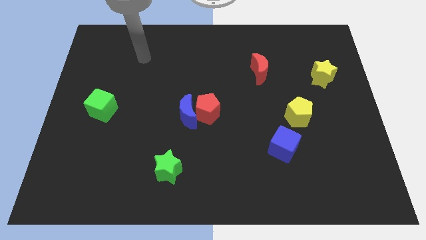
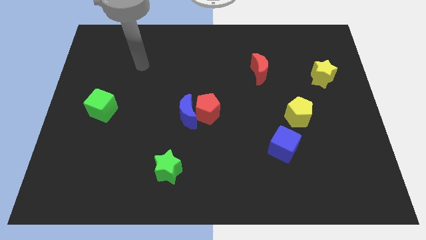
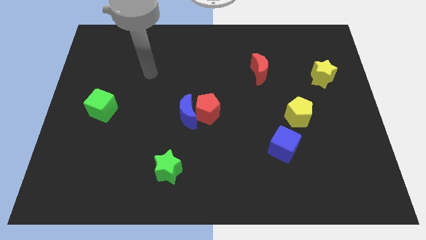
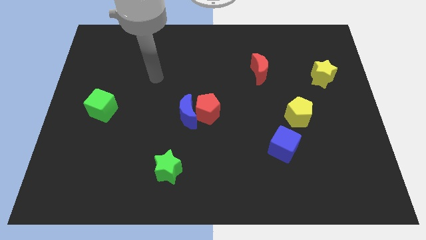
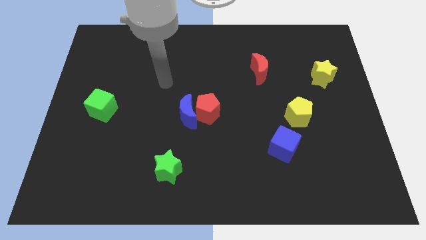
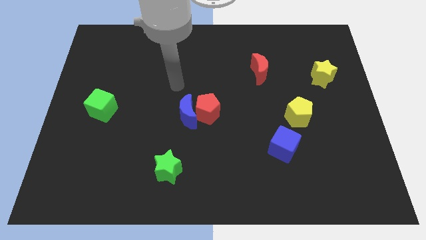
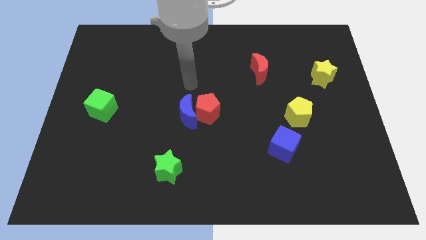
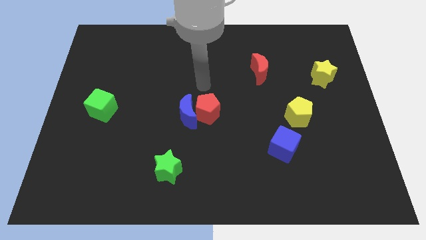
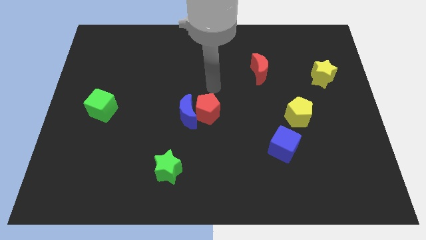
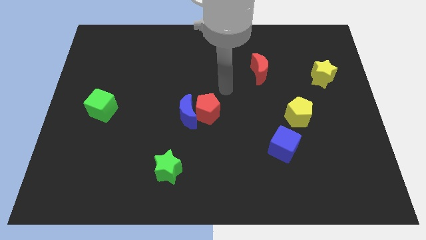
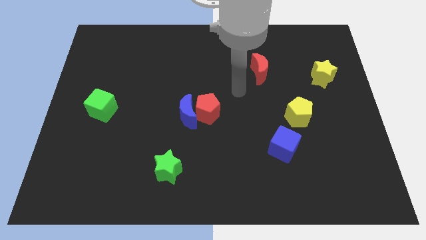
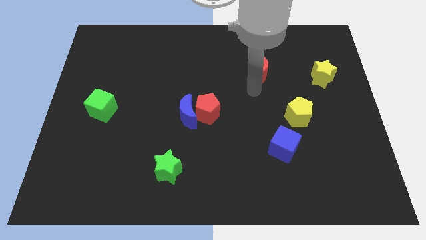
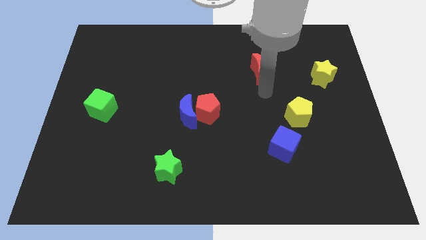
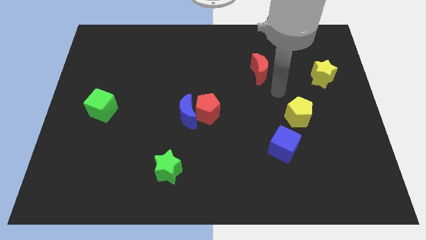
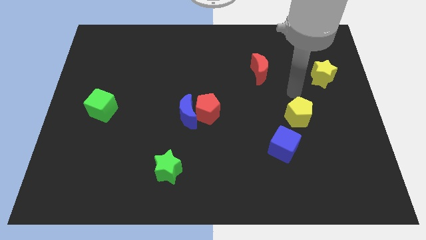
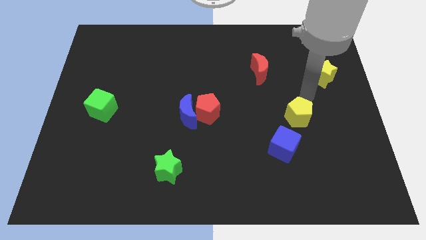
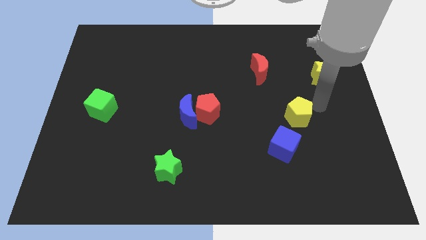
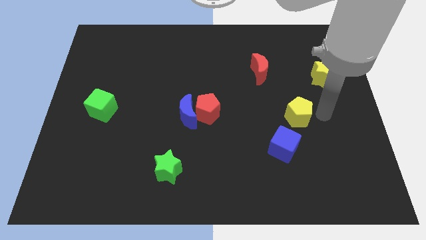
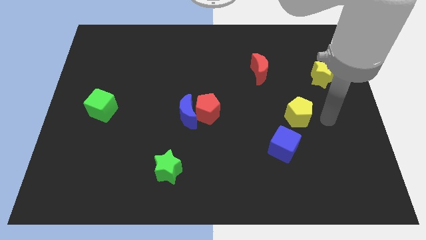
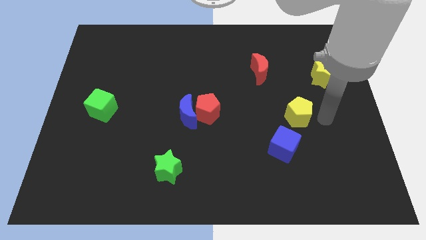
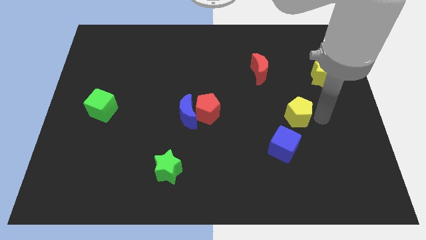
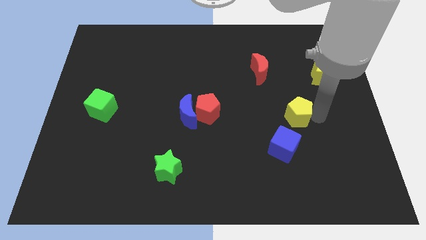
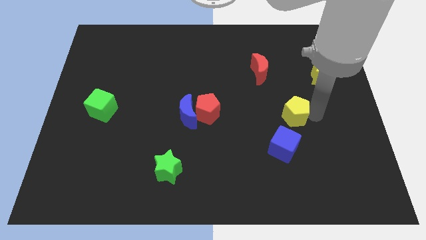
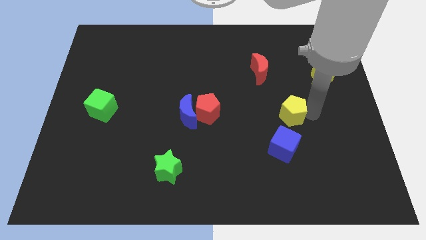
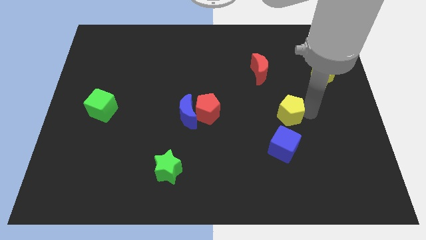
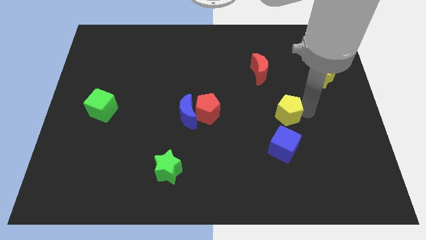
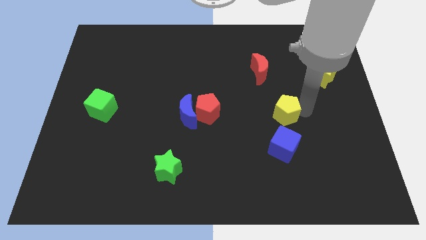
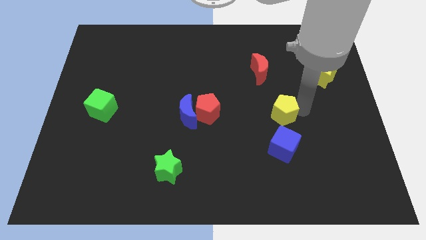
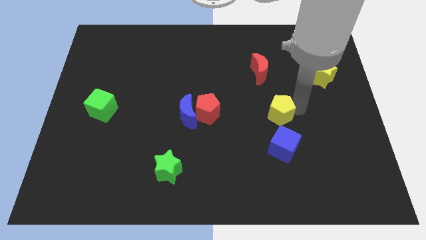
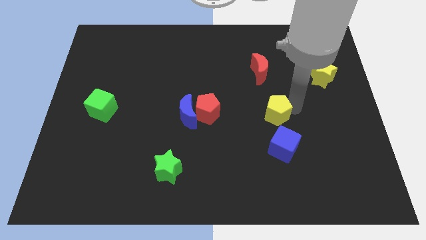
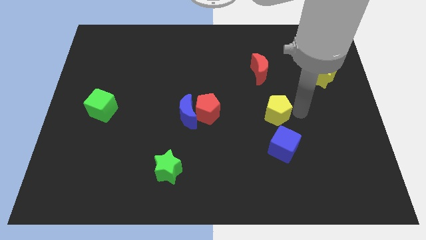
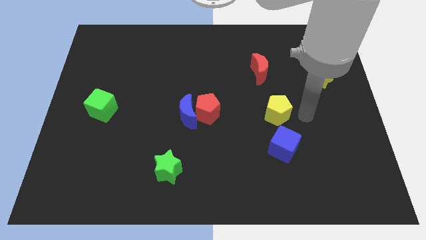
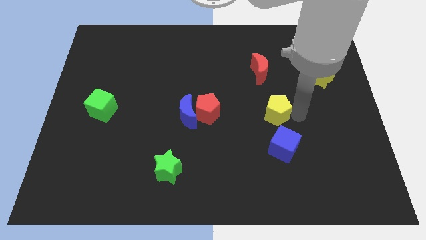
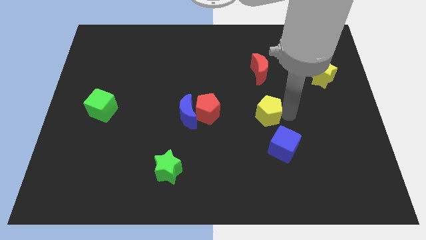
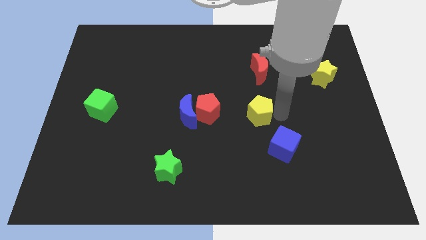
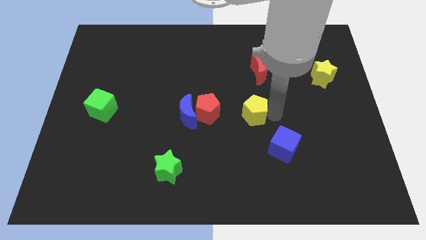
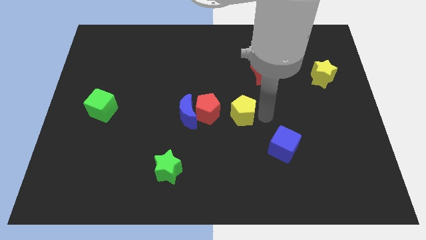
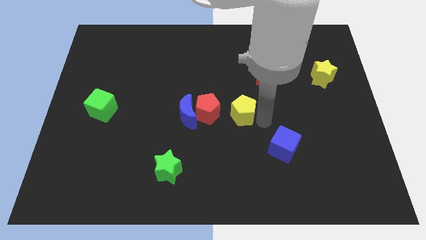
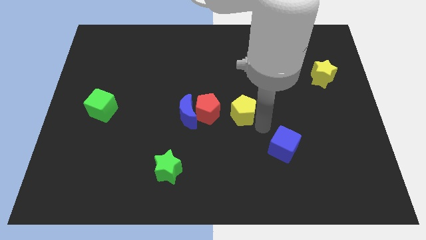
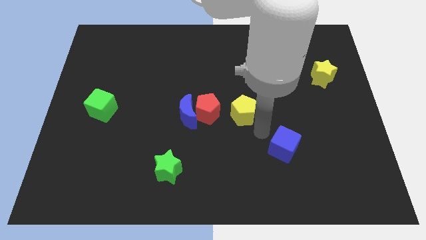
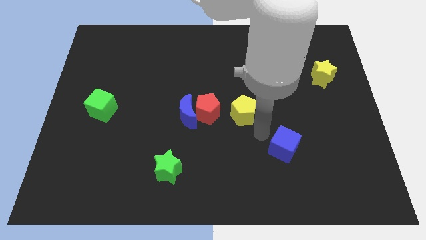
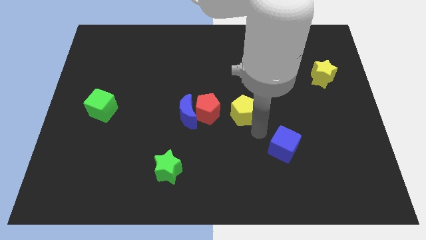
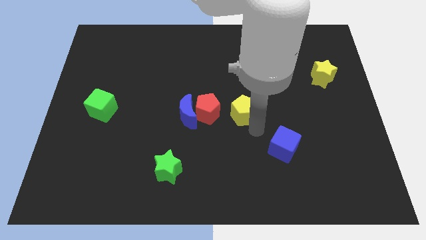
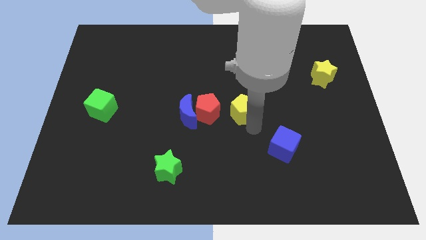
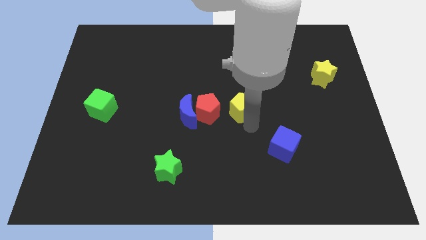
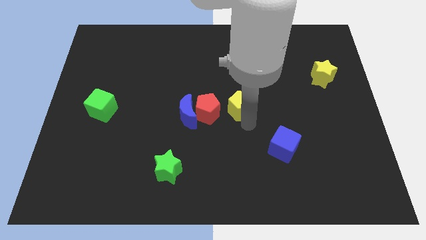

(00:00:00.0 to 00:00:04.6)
move the yellow pentagon diagonally up and to the right of the red pentagon

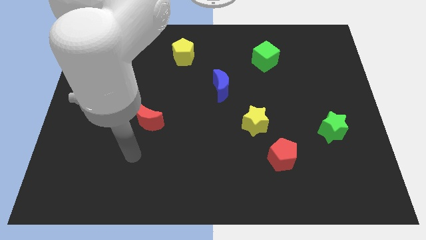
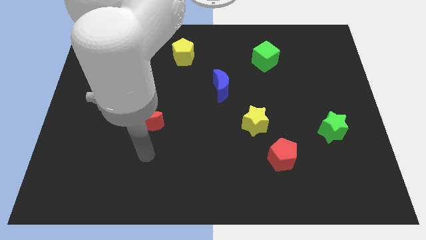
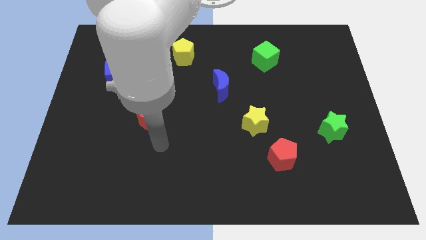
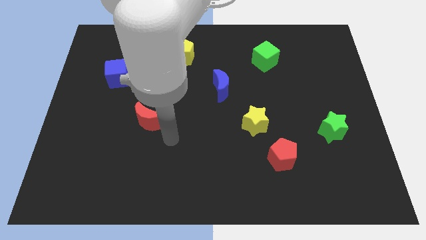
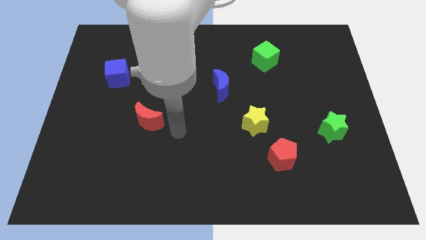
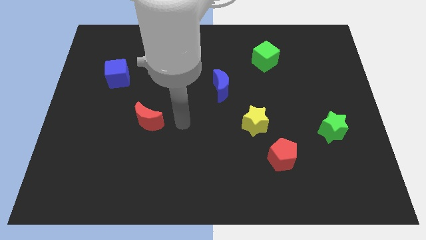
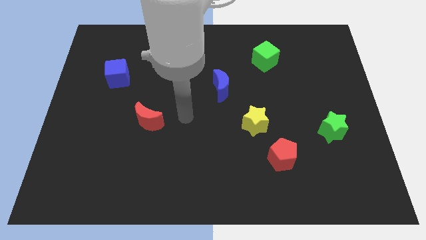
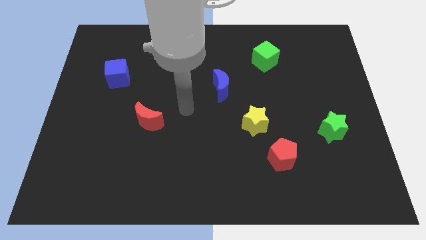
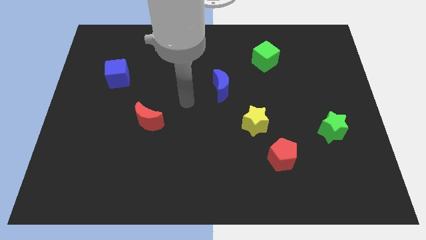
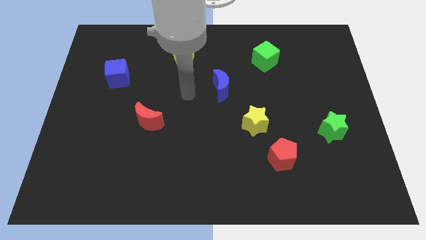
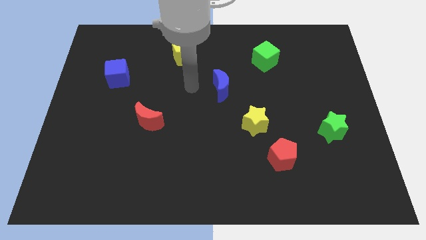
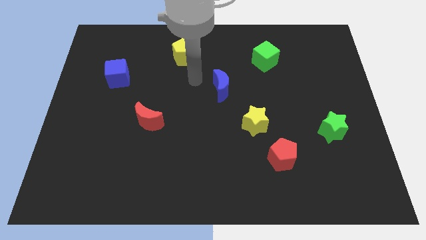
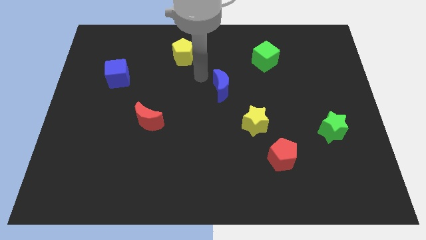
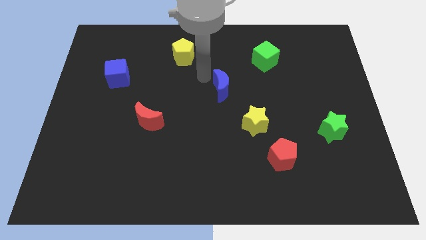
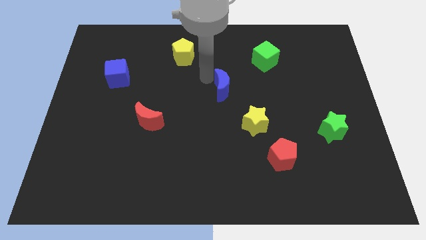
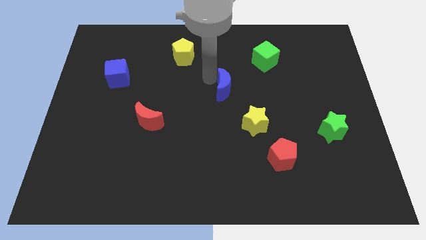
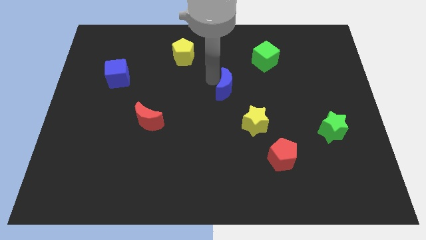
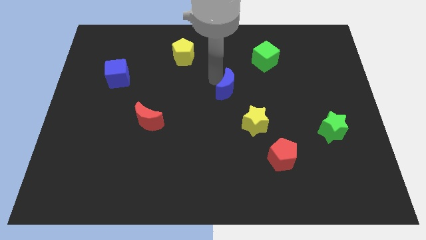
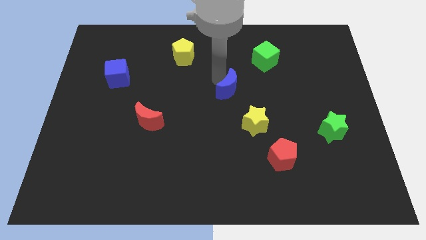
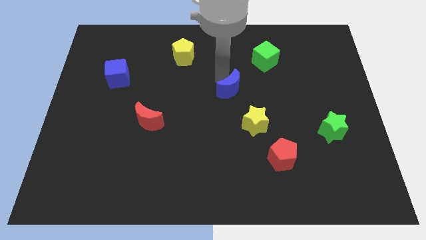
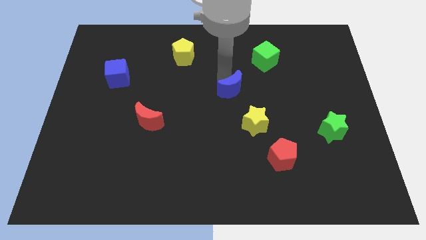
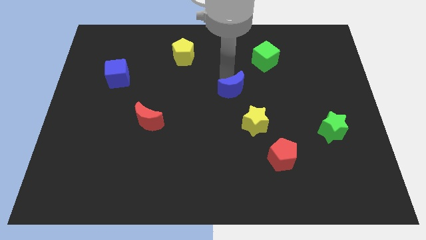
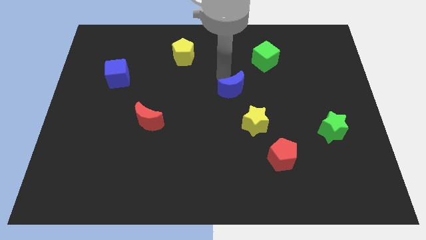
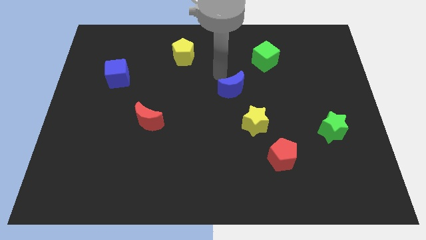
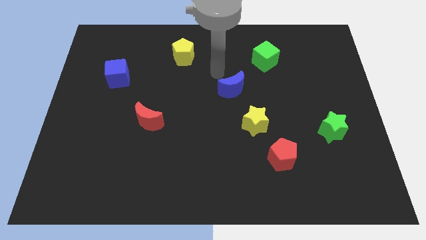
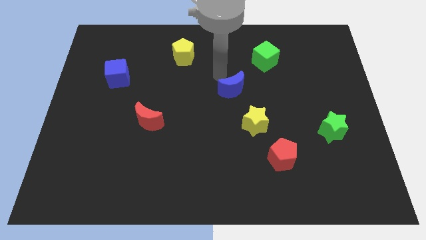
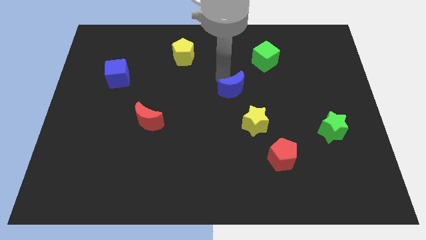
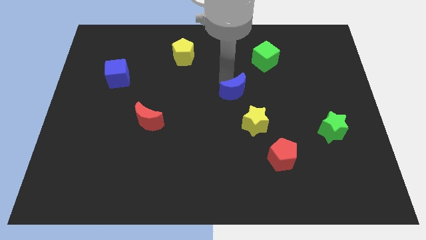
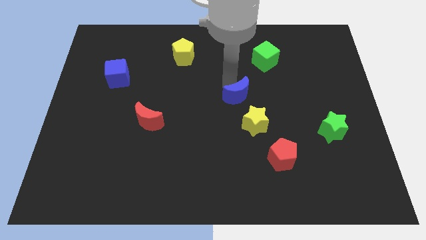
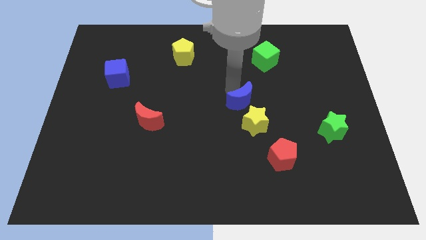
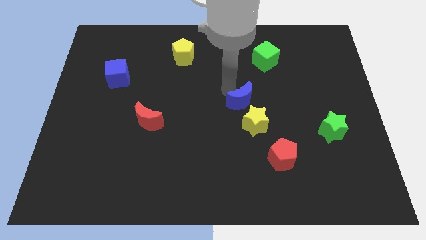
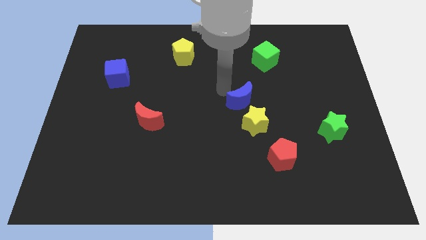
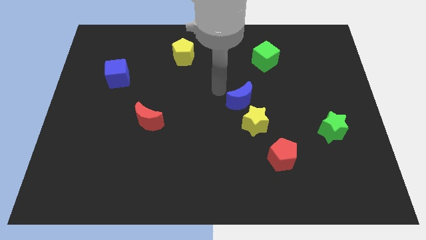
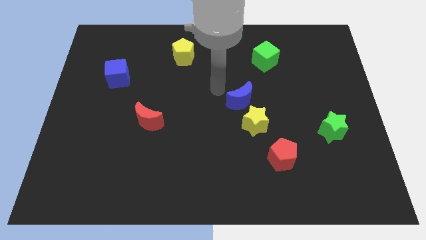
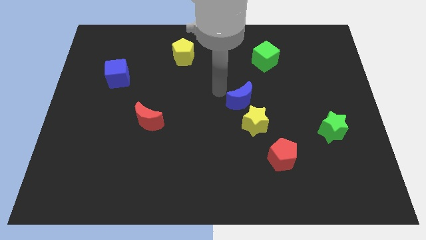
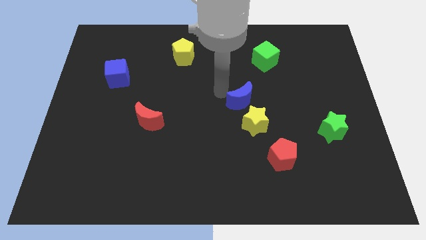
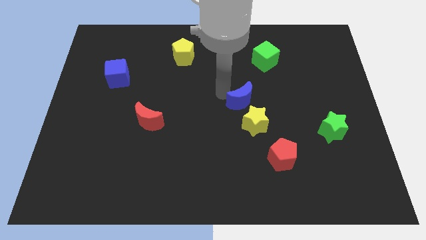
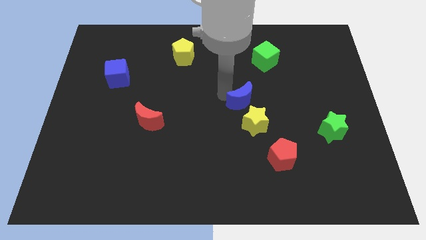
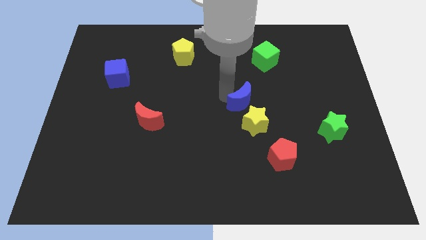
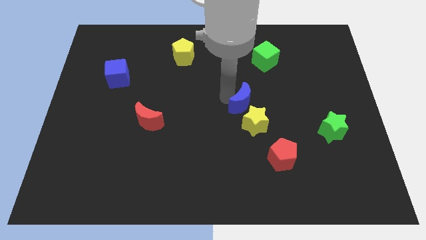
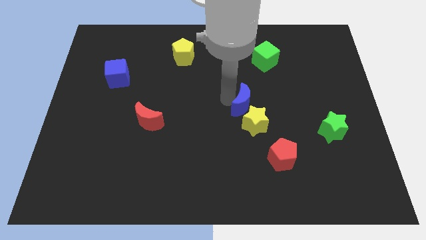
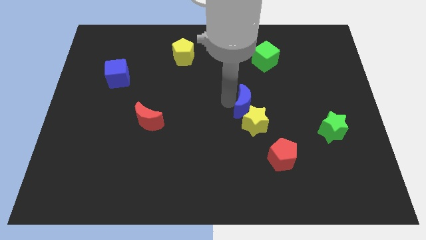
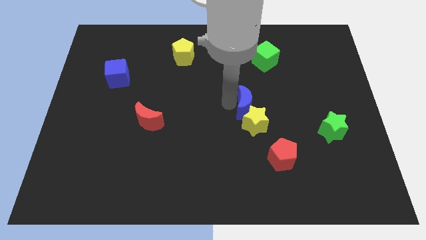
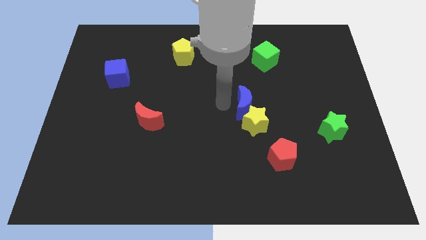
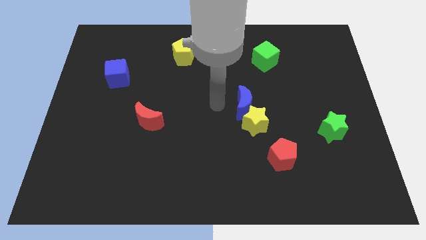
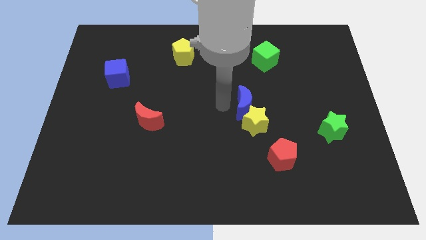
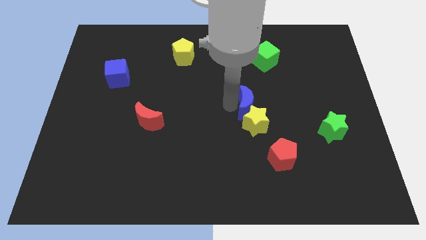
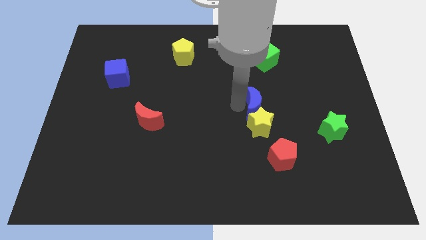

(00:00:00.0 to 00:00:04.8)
push the blue moon to the top right side of the yellow star
